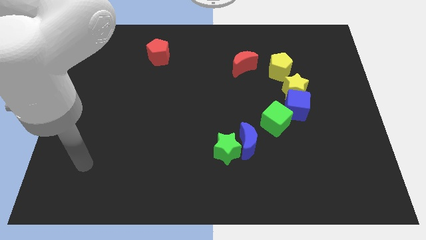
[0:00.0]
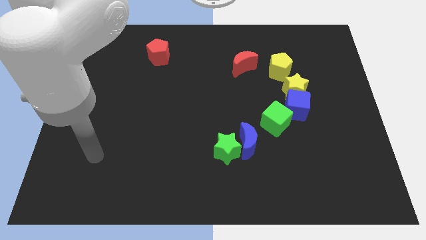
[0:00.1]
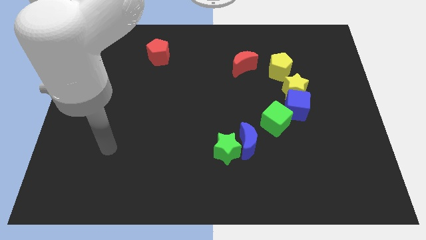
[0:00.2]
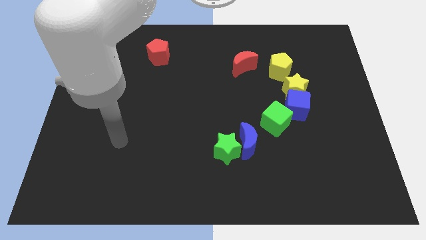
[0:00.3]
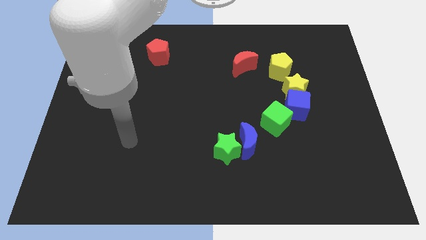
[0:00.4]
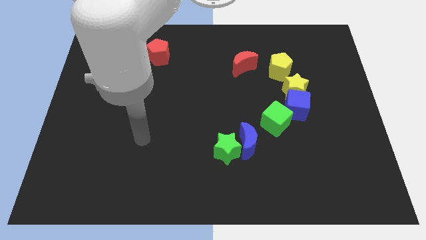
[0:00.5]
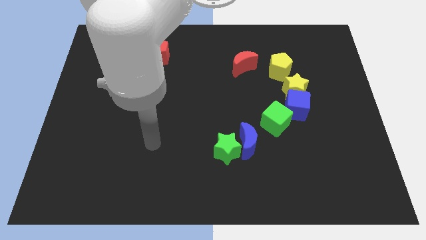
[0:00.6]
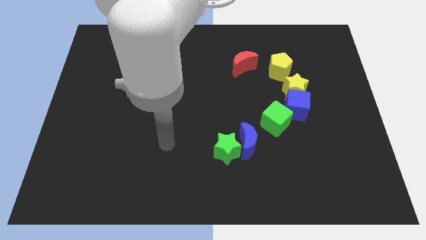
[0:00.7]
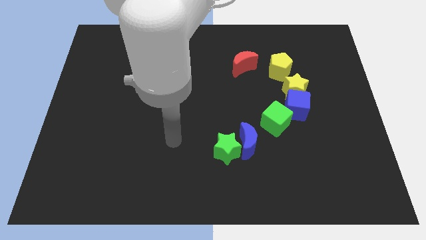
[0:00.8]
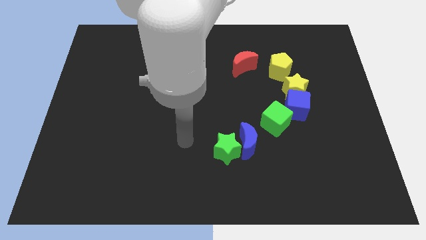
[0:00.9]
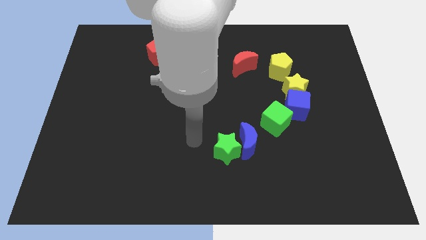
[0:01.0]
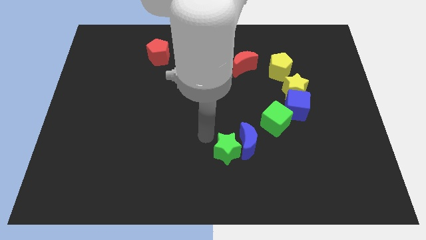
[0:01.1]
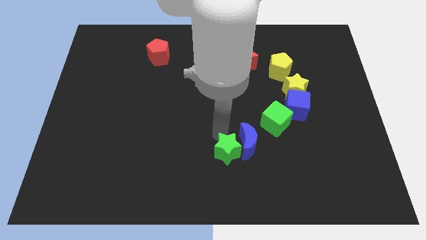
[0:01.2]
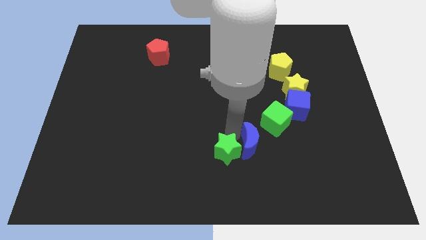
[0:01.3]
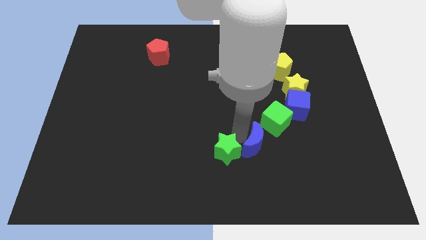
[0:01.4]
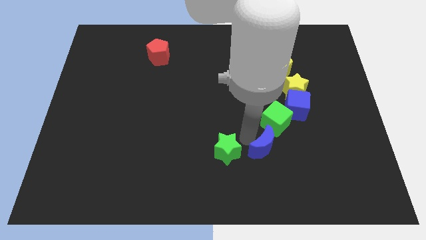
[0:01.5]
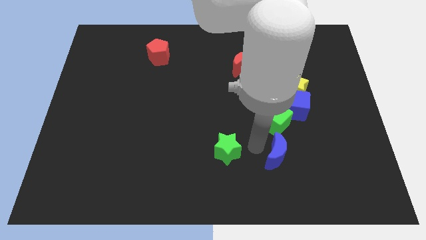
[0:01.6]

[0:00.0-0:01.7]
pull the green star apart from the blue moon

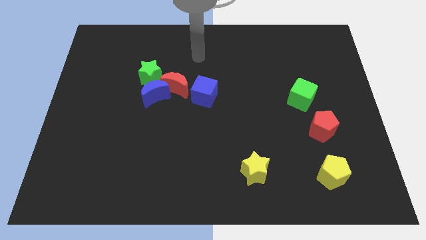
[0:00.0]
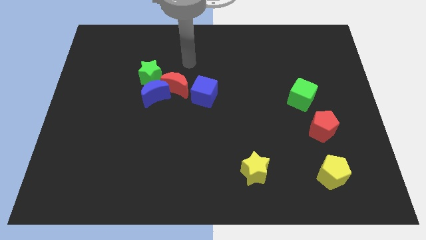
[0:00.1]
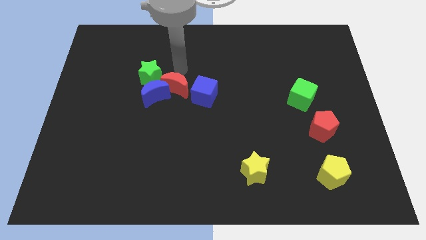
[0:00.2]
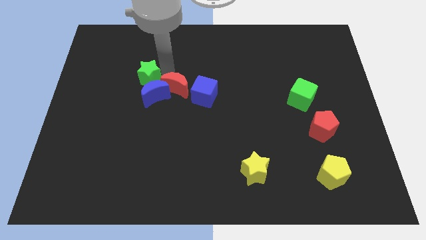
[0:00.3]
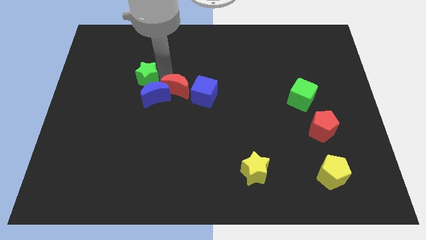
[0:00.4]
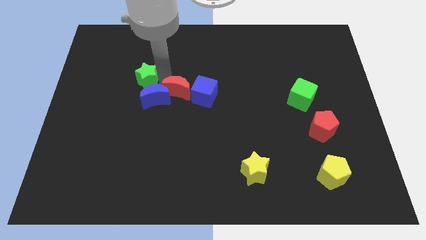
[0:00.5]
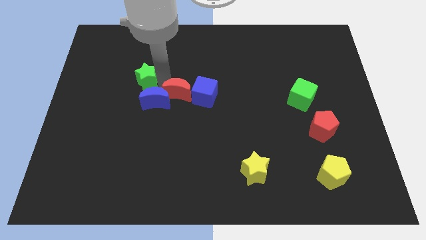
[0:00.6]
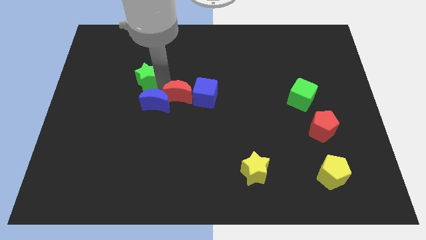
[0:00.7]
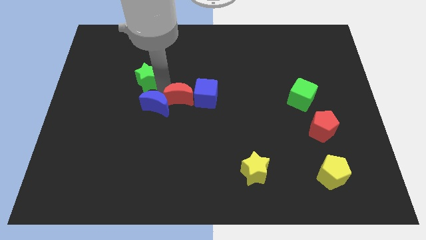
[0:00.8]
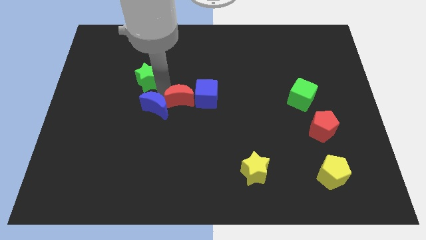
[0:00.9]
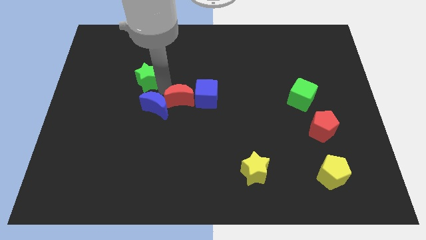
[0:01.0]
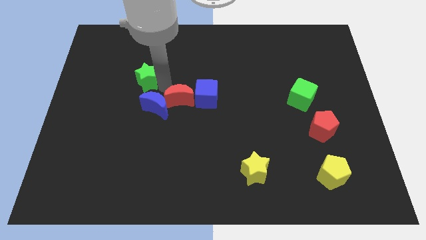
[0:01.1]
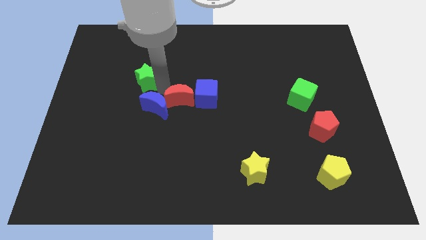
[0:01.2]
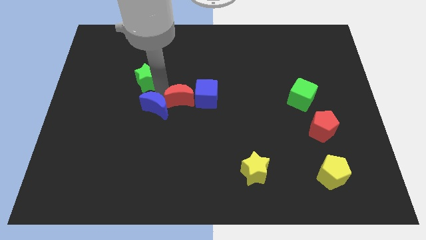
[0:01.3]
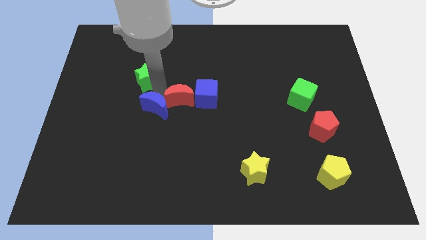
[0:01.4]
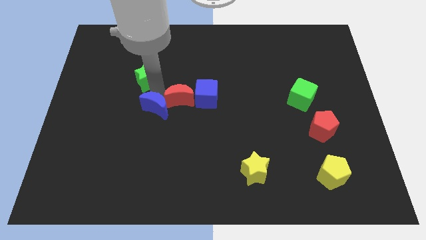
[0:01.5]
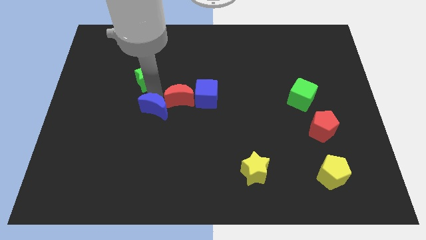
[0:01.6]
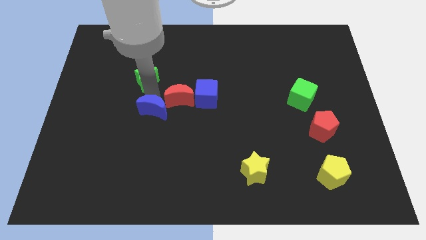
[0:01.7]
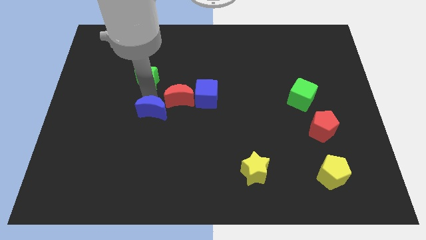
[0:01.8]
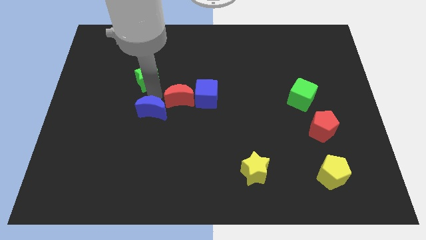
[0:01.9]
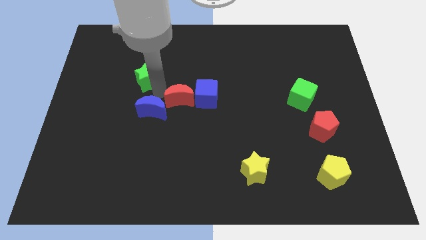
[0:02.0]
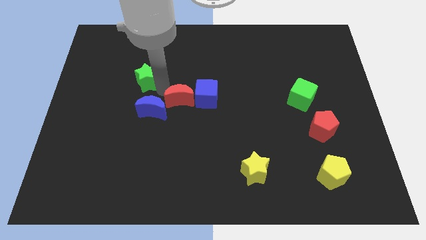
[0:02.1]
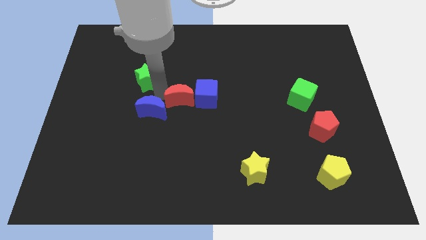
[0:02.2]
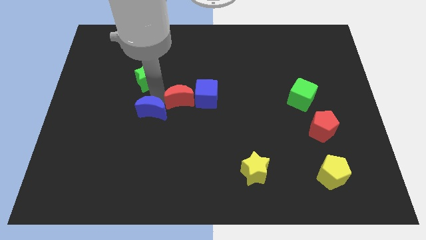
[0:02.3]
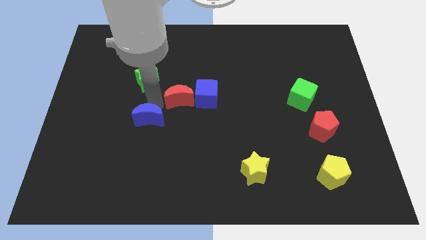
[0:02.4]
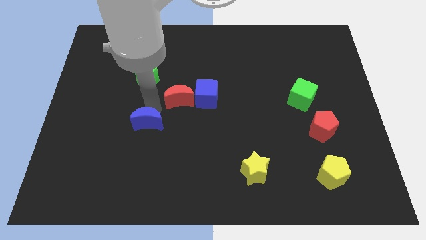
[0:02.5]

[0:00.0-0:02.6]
move the blue moon away from the red moon and green star

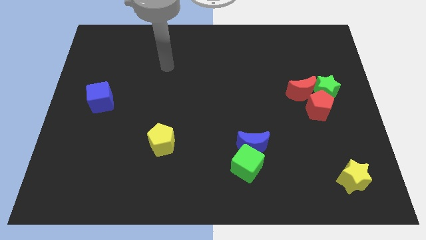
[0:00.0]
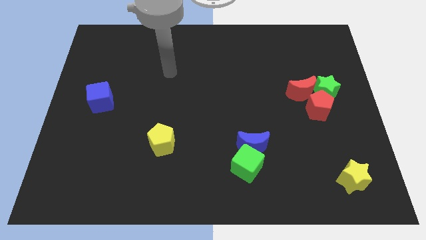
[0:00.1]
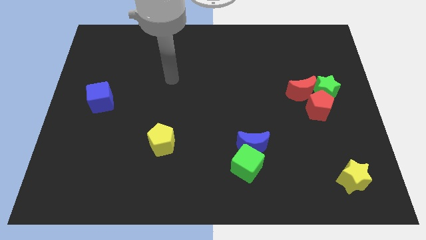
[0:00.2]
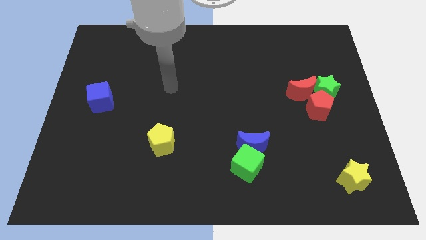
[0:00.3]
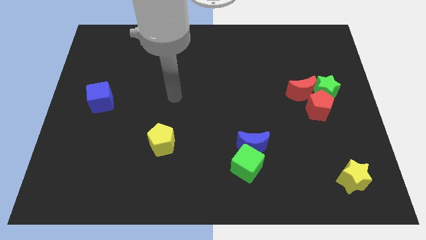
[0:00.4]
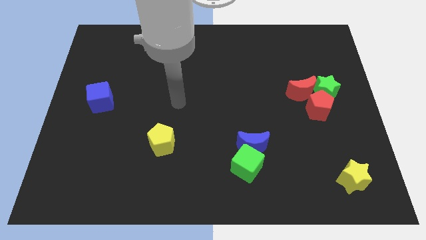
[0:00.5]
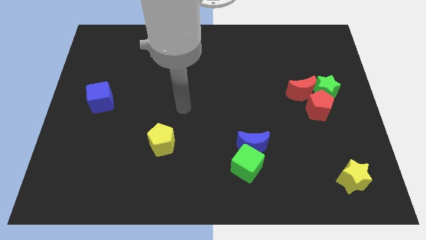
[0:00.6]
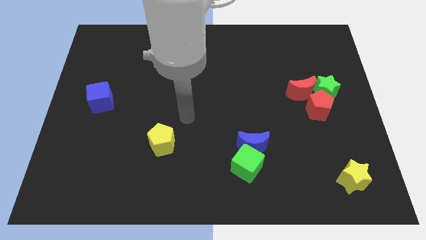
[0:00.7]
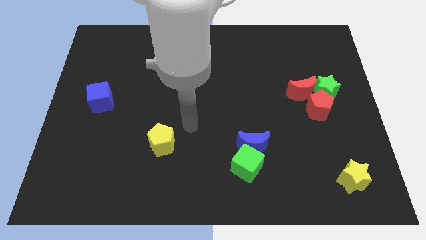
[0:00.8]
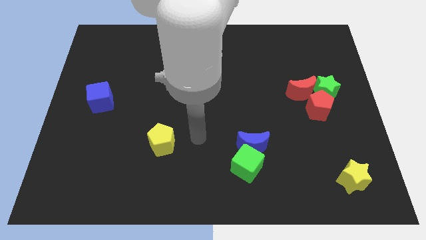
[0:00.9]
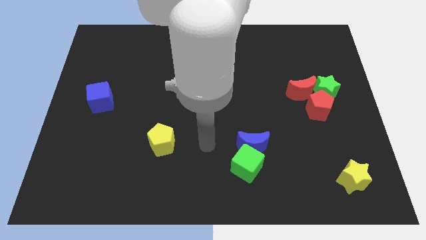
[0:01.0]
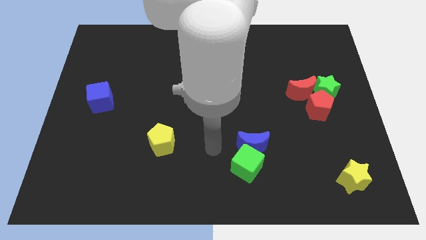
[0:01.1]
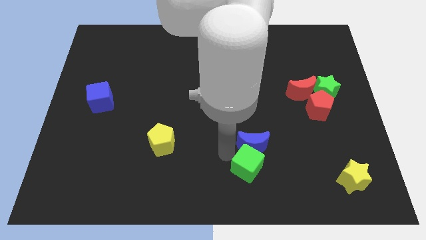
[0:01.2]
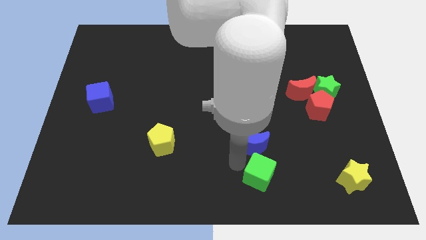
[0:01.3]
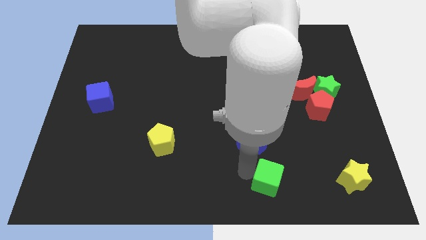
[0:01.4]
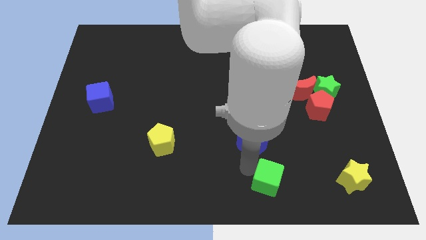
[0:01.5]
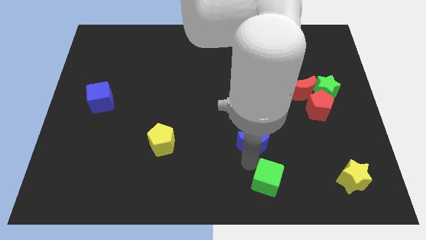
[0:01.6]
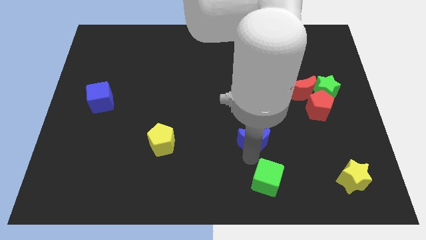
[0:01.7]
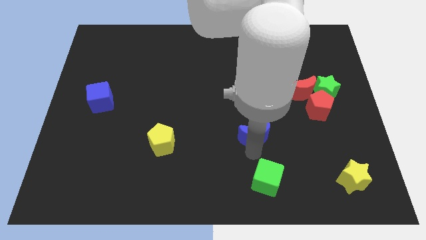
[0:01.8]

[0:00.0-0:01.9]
move the blue moon away from the green cube

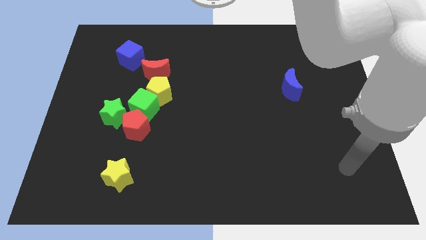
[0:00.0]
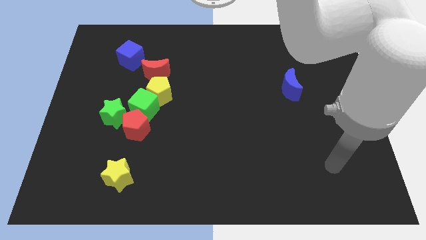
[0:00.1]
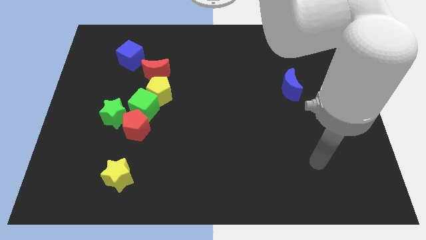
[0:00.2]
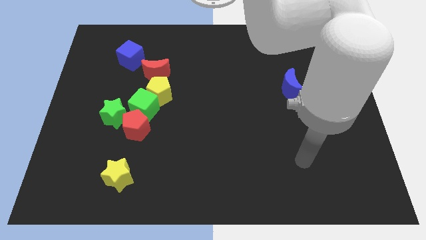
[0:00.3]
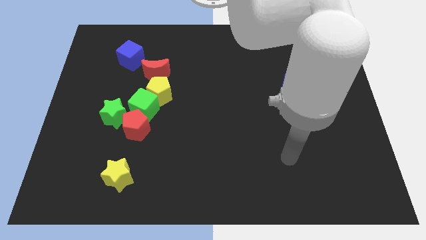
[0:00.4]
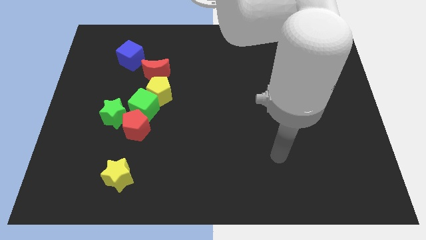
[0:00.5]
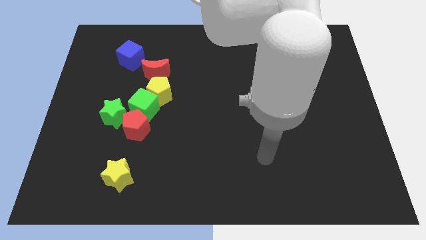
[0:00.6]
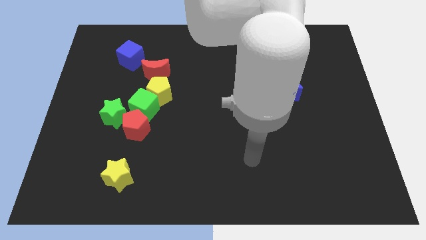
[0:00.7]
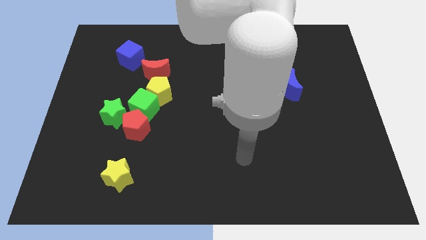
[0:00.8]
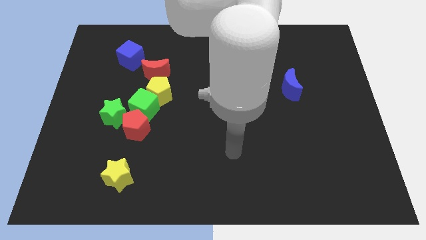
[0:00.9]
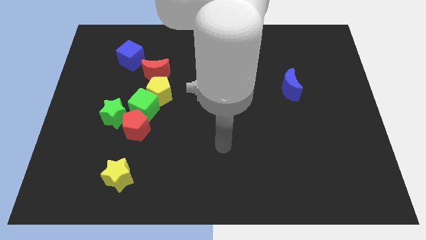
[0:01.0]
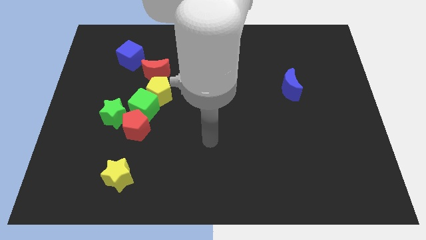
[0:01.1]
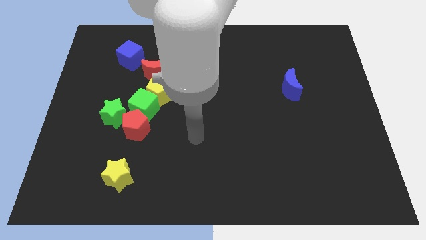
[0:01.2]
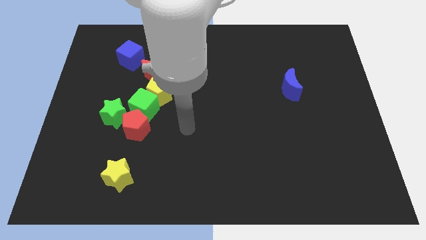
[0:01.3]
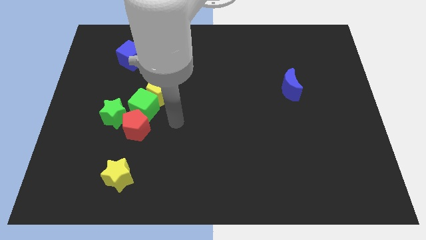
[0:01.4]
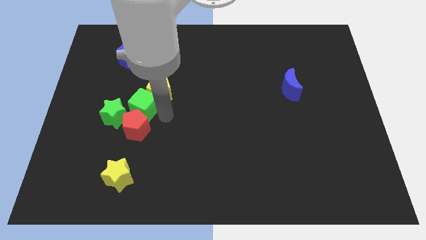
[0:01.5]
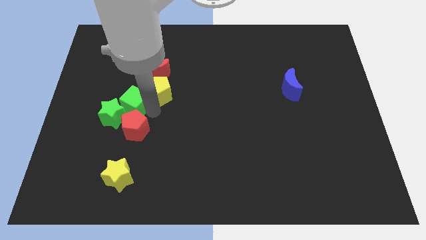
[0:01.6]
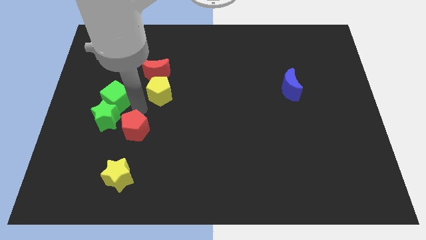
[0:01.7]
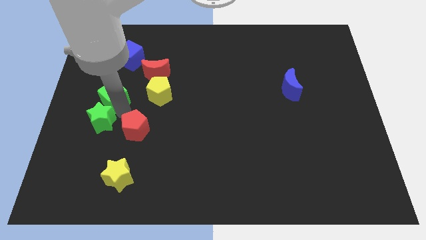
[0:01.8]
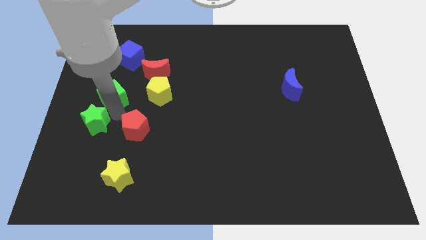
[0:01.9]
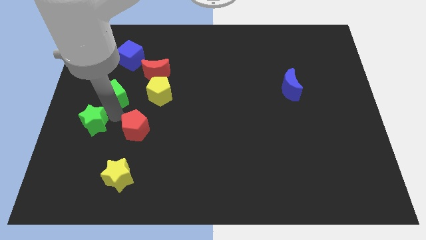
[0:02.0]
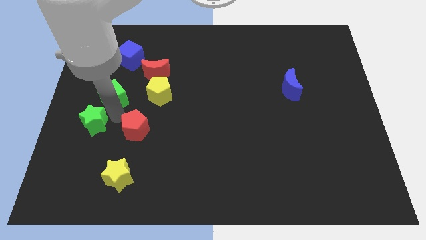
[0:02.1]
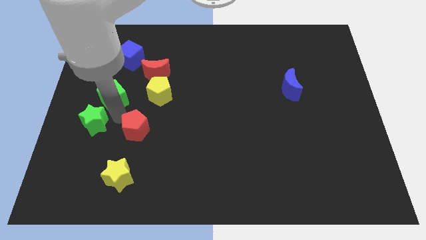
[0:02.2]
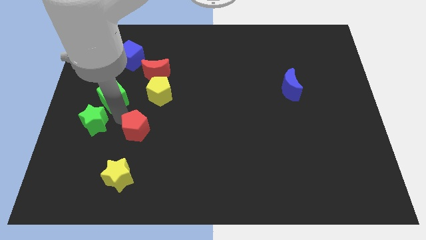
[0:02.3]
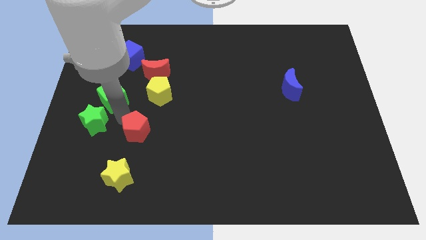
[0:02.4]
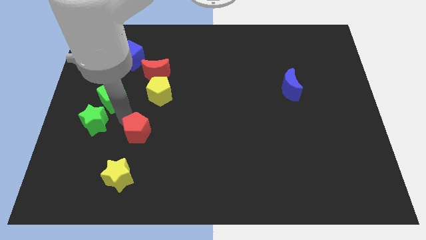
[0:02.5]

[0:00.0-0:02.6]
move the red pentagon away from the green cube and green star

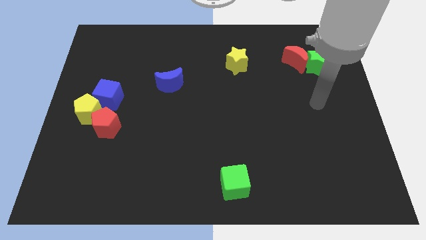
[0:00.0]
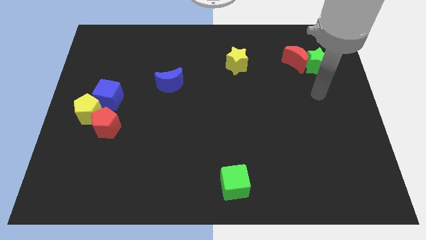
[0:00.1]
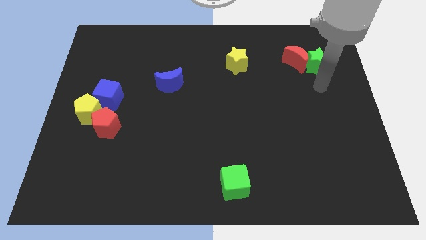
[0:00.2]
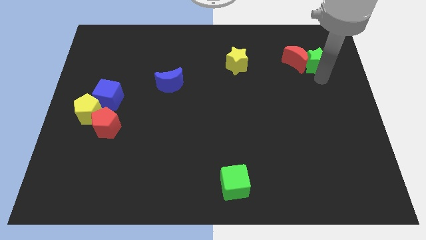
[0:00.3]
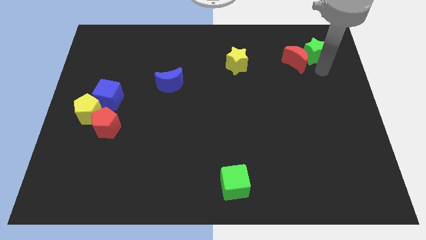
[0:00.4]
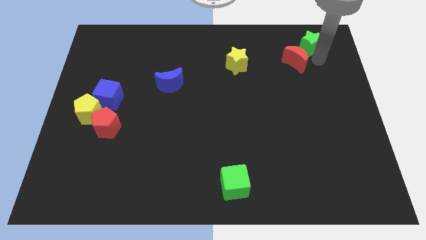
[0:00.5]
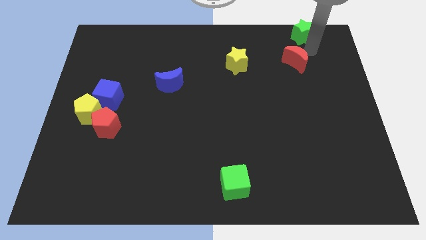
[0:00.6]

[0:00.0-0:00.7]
move the red moon away from the green star
